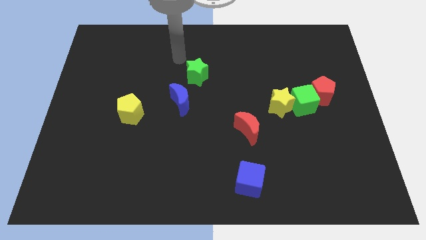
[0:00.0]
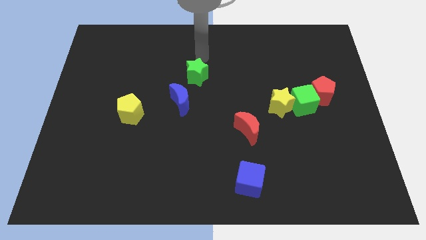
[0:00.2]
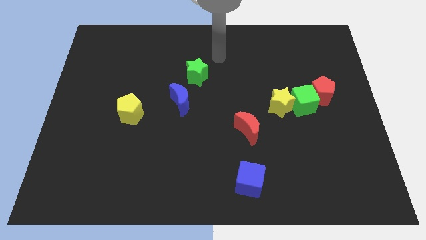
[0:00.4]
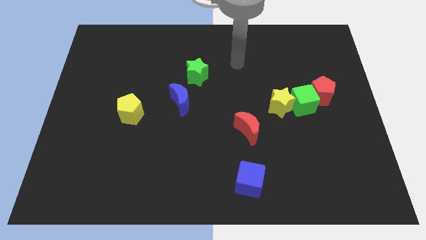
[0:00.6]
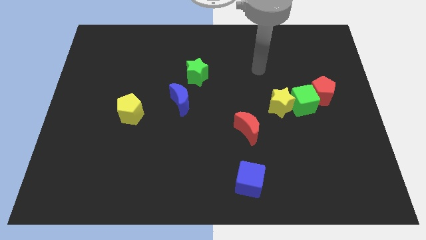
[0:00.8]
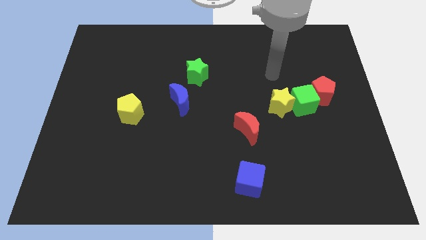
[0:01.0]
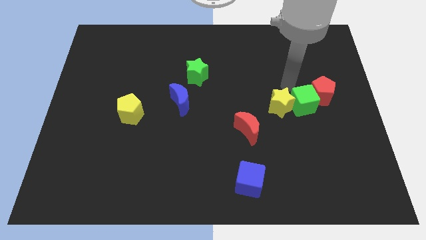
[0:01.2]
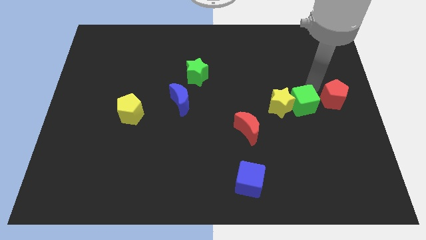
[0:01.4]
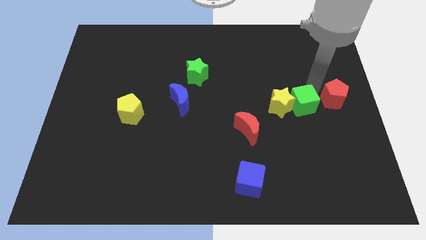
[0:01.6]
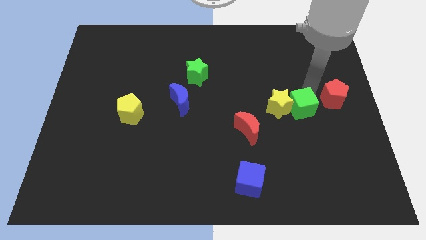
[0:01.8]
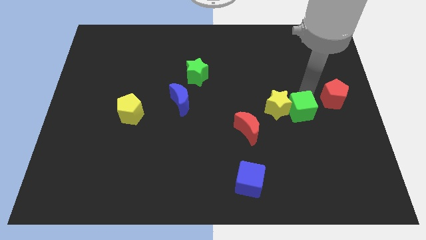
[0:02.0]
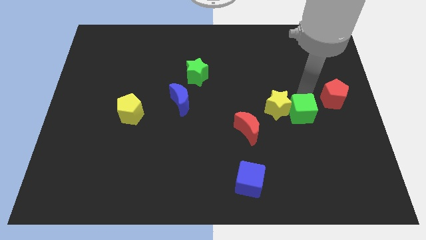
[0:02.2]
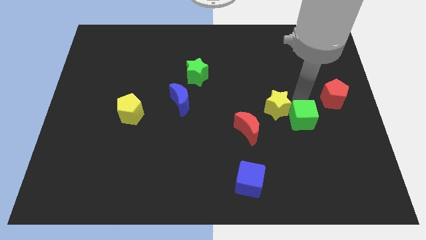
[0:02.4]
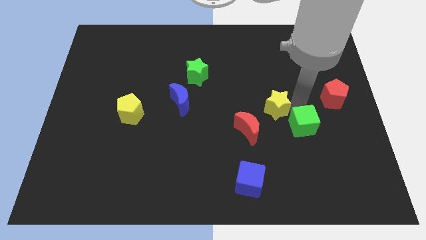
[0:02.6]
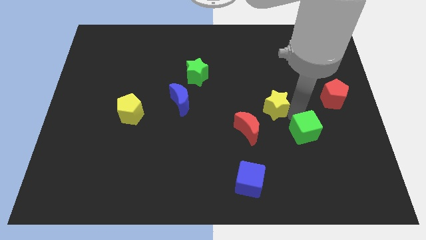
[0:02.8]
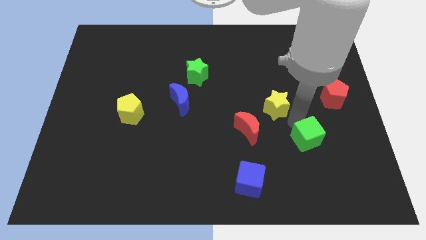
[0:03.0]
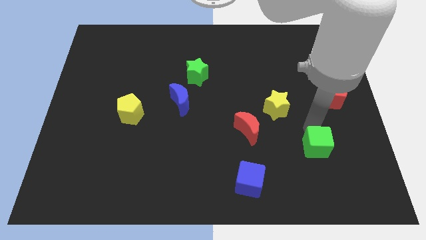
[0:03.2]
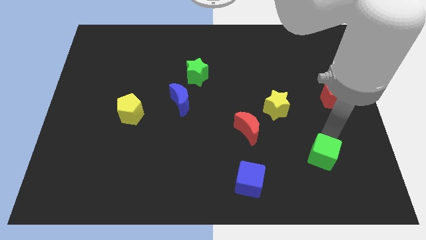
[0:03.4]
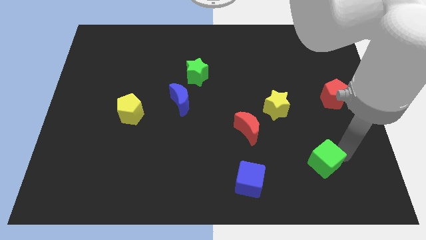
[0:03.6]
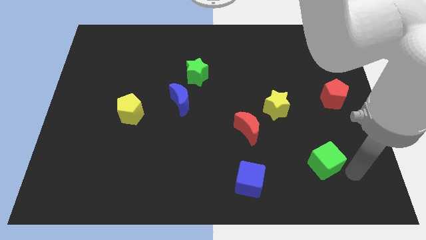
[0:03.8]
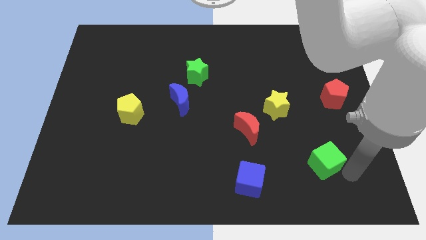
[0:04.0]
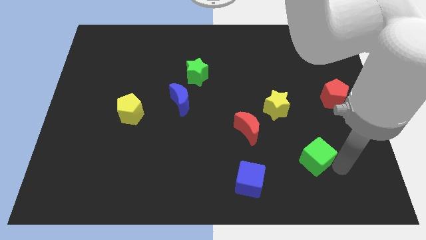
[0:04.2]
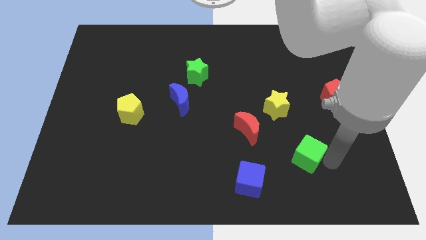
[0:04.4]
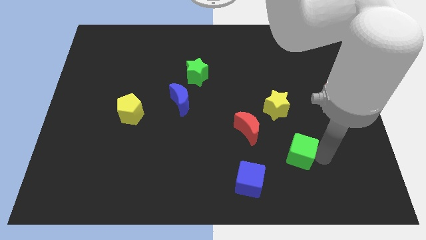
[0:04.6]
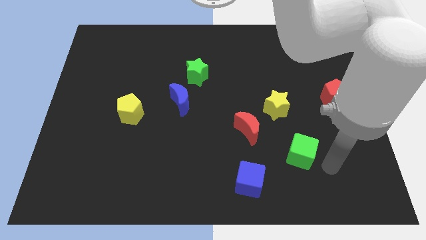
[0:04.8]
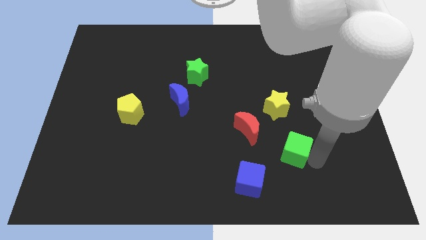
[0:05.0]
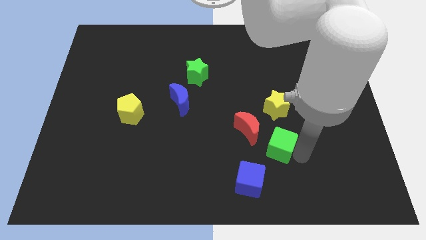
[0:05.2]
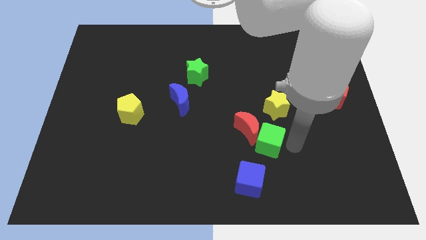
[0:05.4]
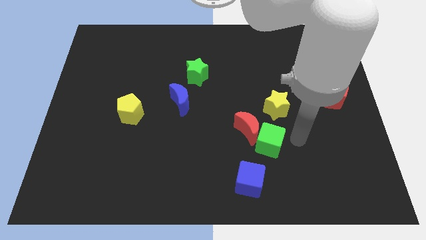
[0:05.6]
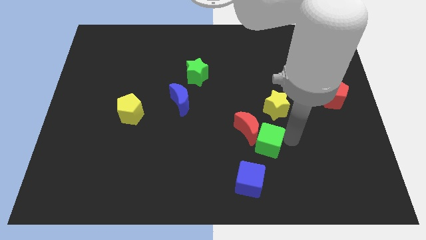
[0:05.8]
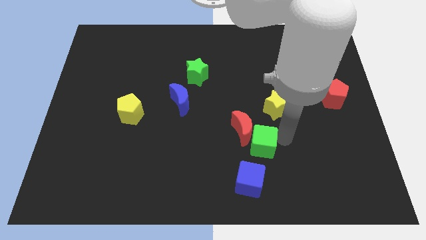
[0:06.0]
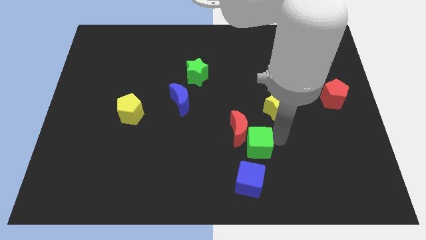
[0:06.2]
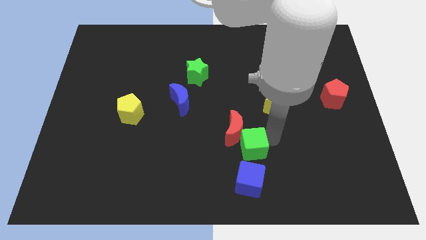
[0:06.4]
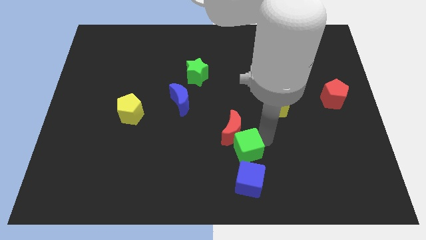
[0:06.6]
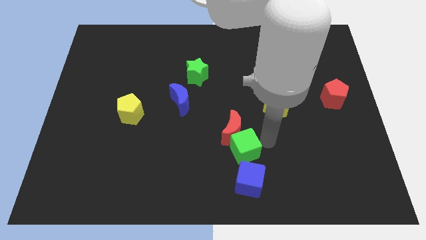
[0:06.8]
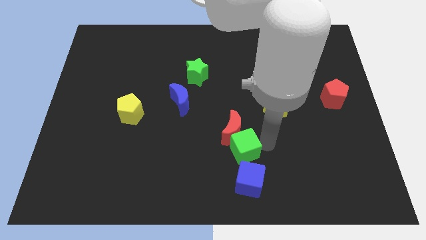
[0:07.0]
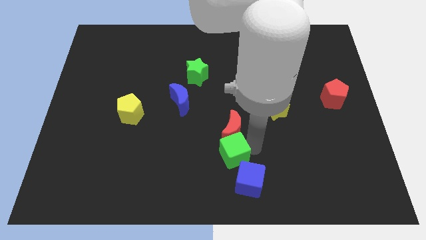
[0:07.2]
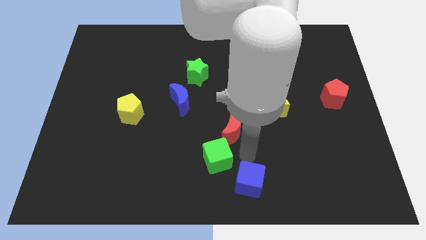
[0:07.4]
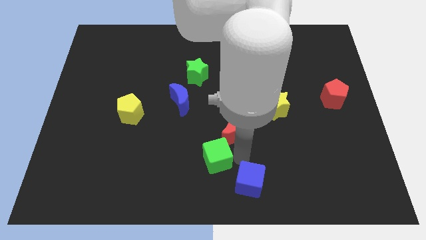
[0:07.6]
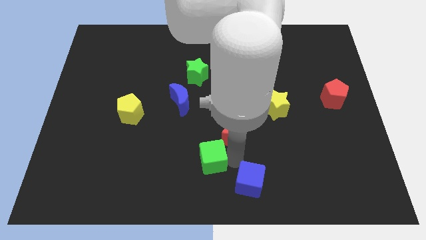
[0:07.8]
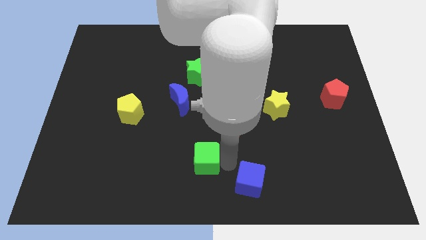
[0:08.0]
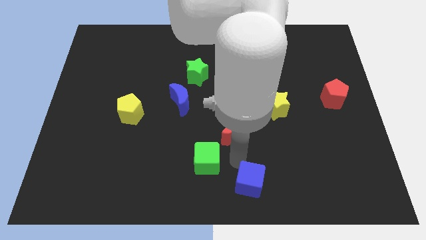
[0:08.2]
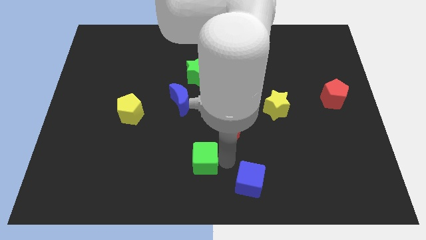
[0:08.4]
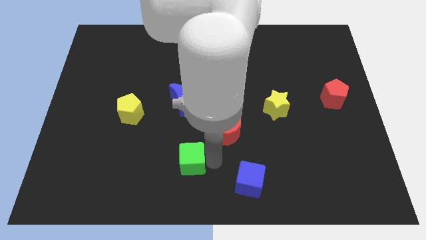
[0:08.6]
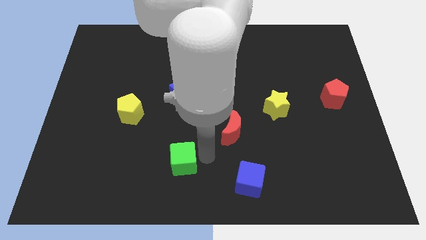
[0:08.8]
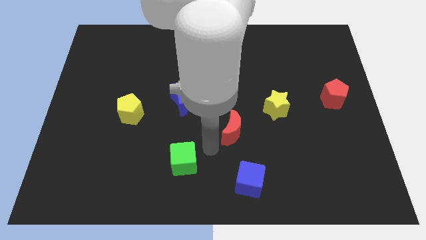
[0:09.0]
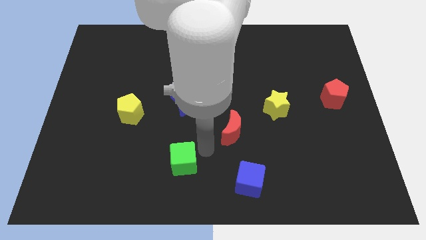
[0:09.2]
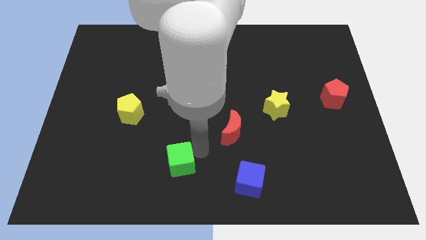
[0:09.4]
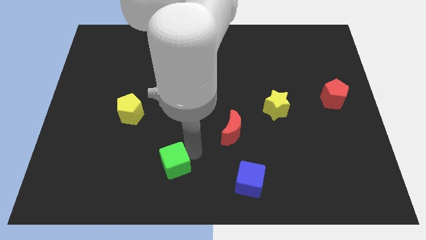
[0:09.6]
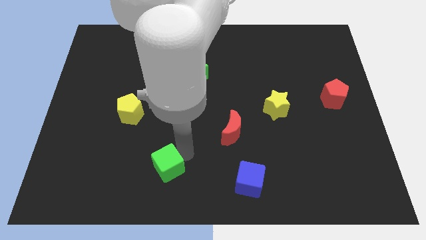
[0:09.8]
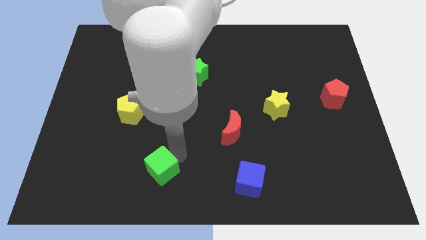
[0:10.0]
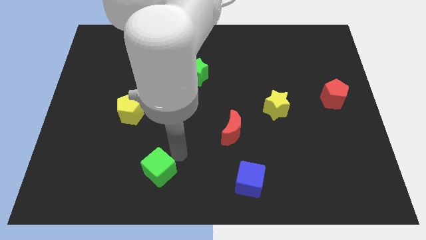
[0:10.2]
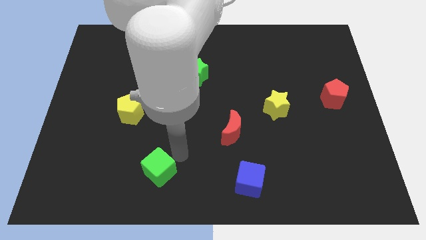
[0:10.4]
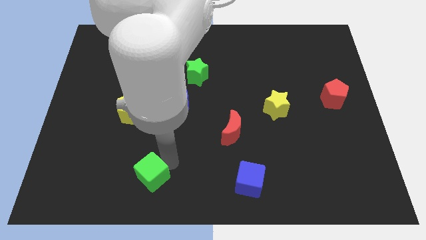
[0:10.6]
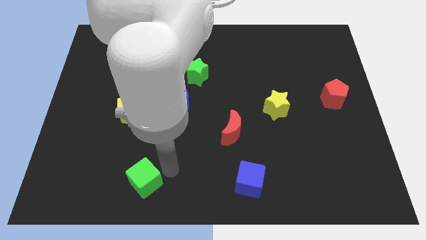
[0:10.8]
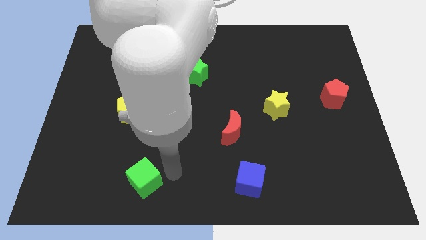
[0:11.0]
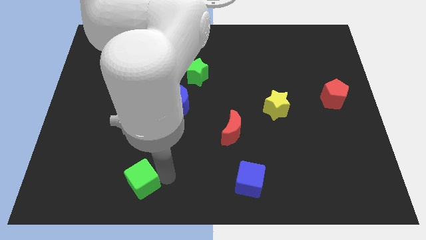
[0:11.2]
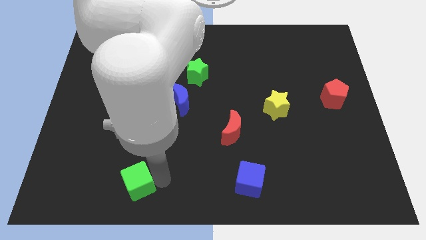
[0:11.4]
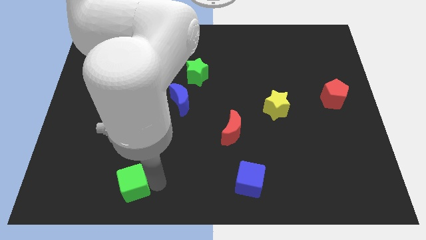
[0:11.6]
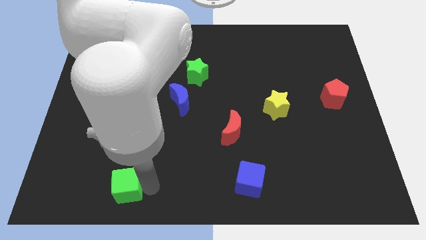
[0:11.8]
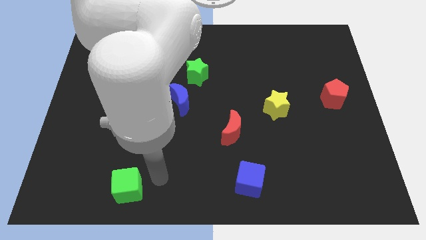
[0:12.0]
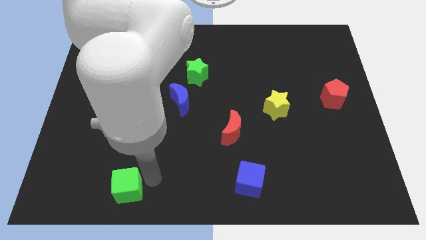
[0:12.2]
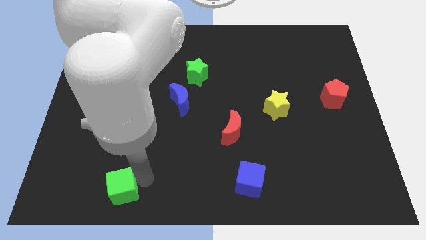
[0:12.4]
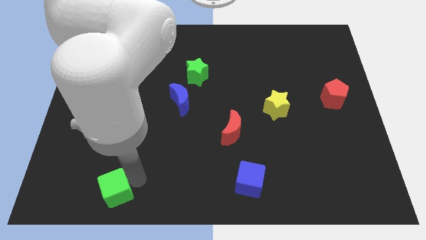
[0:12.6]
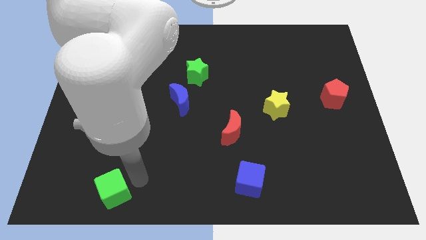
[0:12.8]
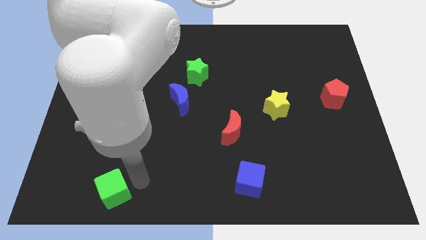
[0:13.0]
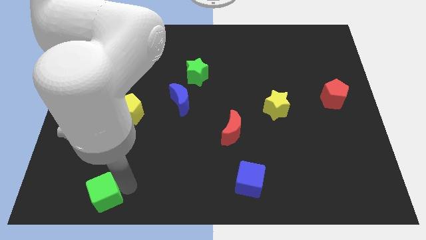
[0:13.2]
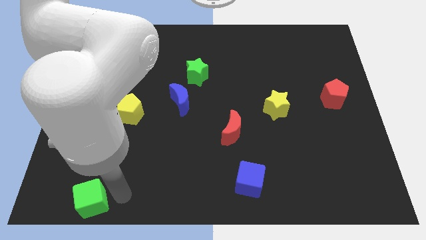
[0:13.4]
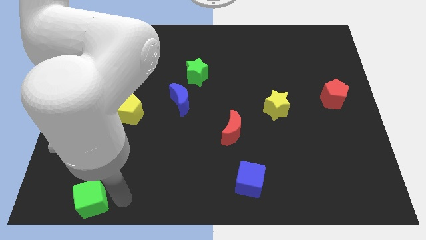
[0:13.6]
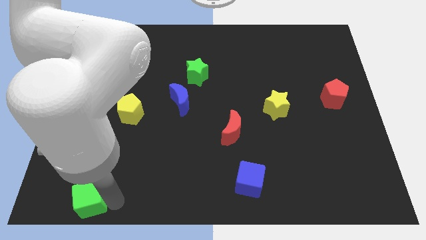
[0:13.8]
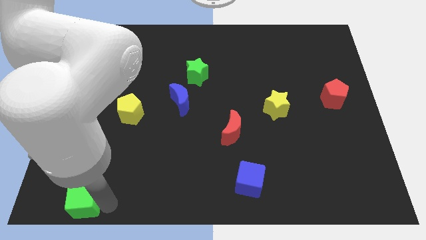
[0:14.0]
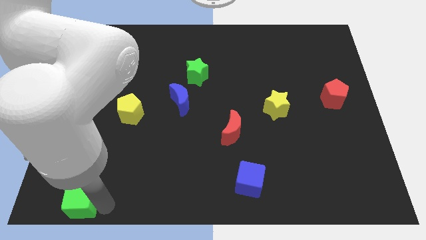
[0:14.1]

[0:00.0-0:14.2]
slide the green cube to the bottom left
